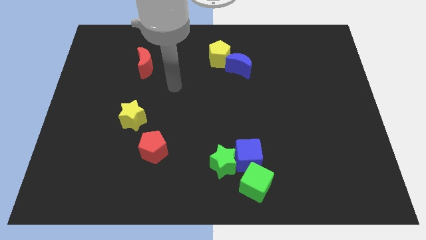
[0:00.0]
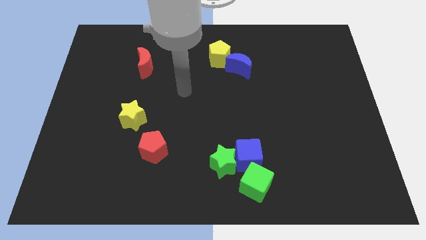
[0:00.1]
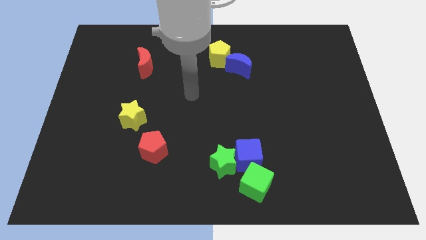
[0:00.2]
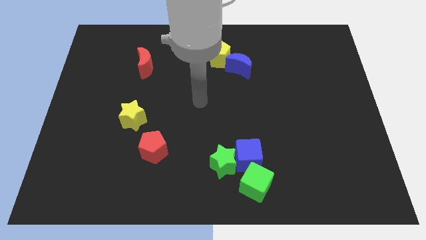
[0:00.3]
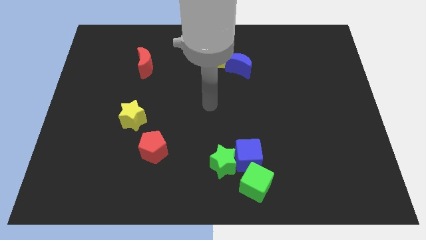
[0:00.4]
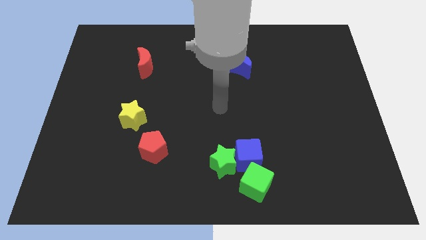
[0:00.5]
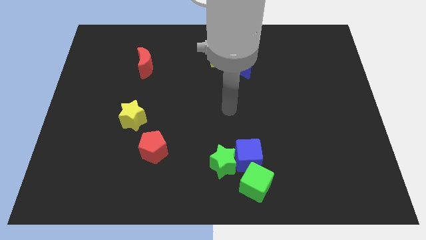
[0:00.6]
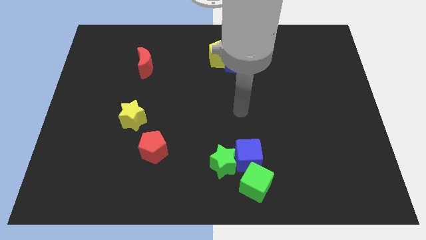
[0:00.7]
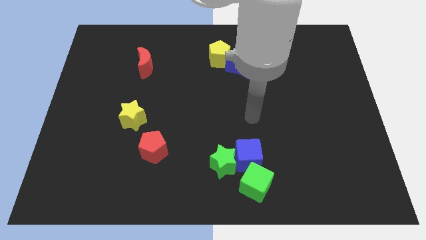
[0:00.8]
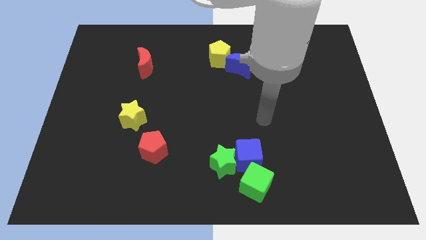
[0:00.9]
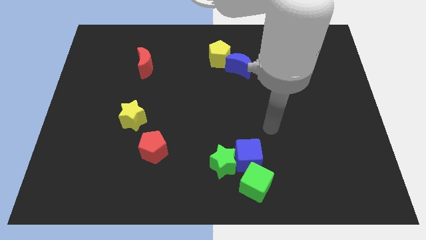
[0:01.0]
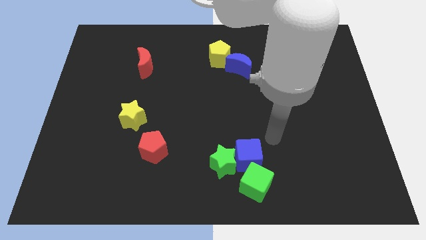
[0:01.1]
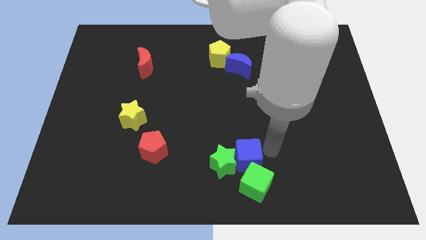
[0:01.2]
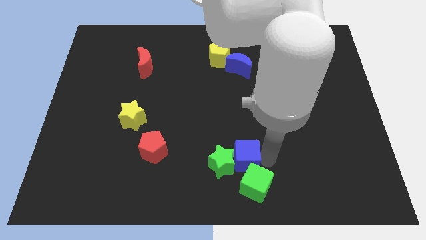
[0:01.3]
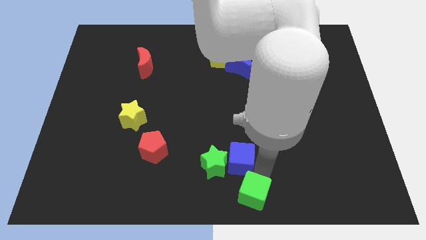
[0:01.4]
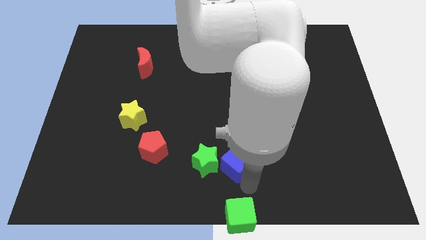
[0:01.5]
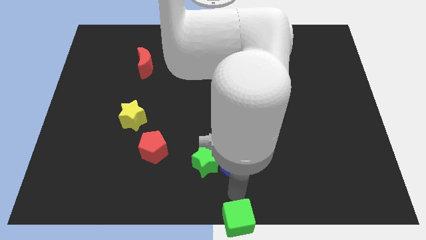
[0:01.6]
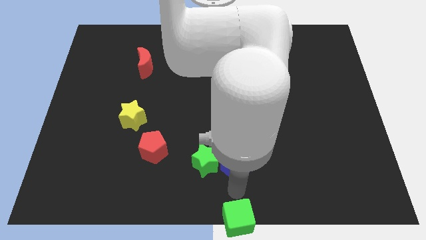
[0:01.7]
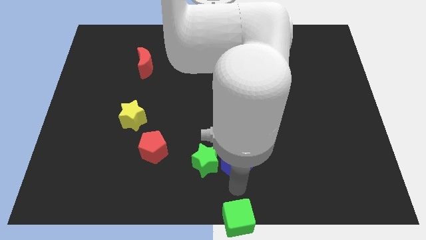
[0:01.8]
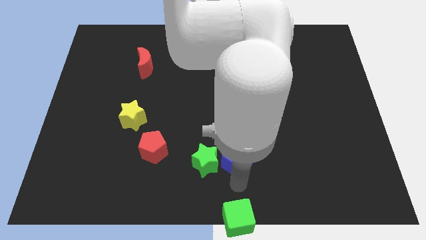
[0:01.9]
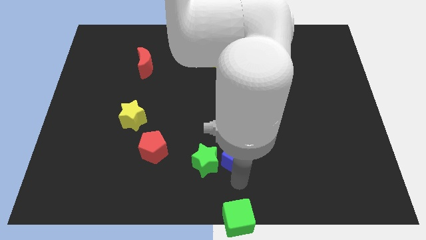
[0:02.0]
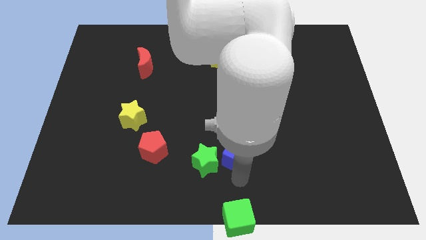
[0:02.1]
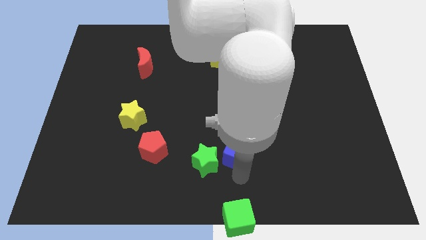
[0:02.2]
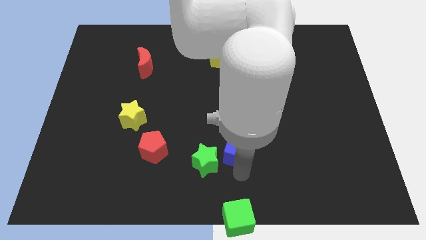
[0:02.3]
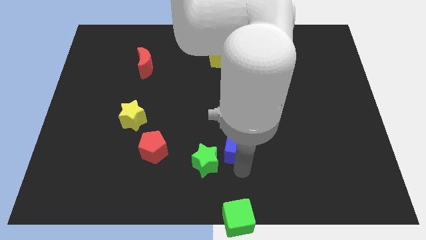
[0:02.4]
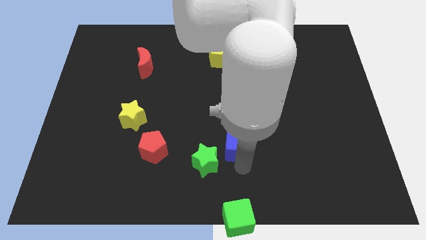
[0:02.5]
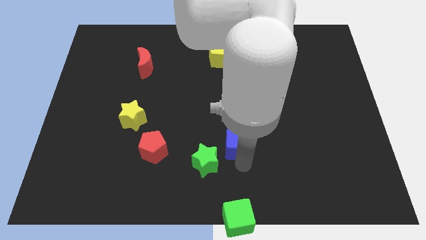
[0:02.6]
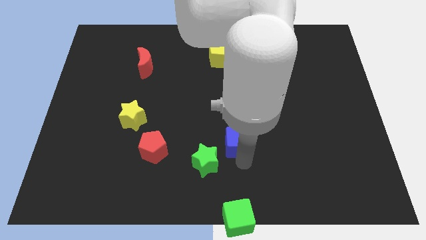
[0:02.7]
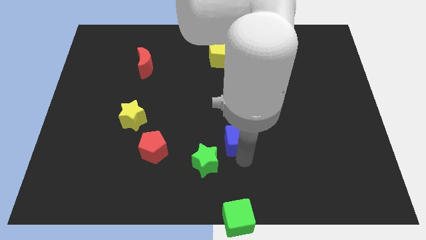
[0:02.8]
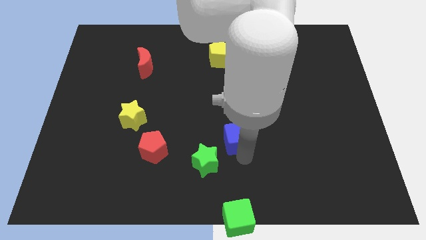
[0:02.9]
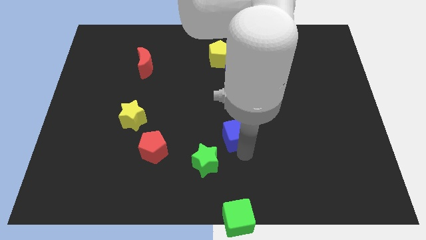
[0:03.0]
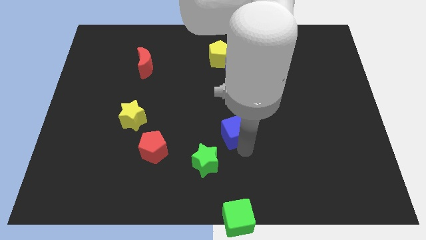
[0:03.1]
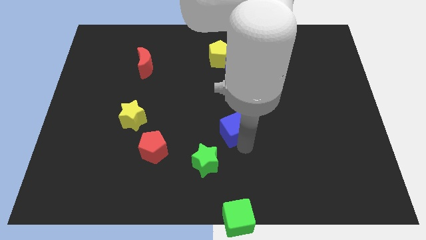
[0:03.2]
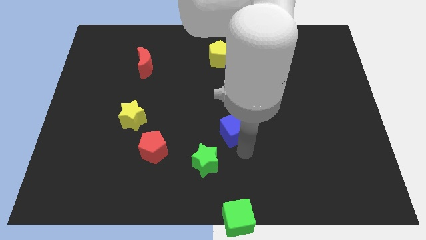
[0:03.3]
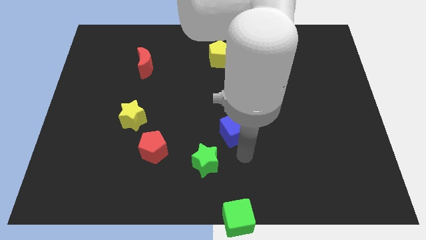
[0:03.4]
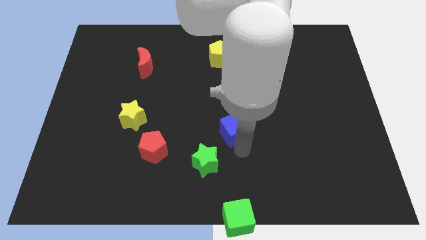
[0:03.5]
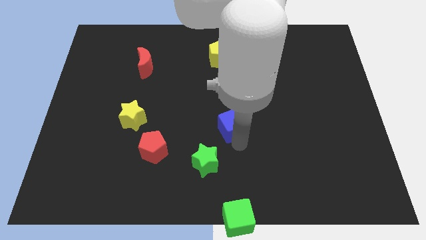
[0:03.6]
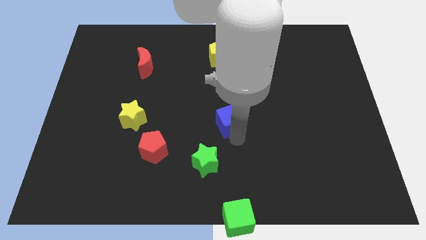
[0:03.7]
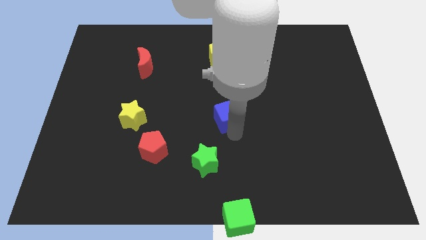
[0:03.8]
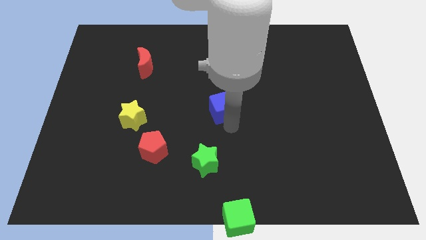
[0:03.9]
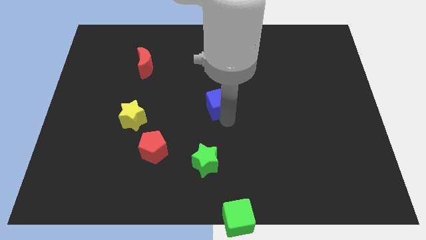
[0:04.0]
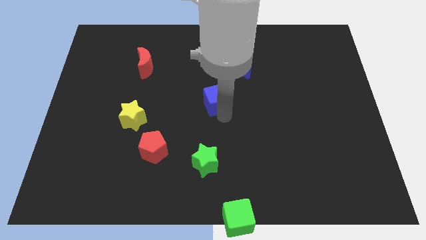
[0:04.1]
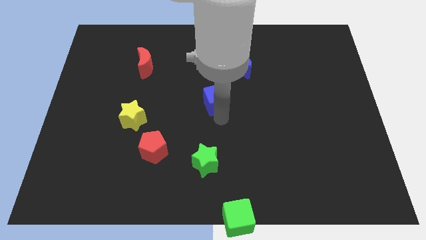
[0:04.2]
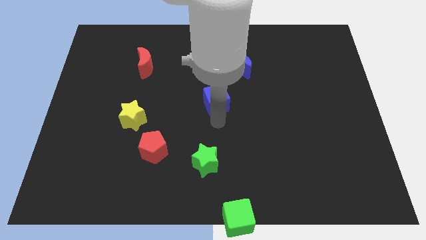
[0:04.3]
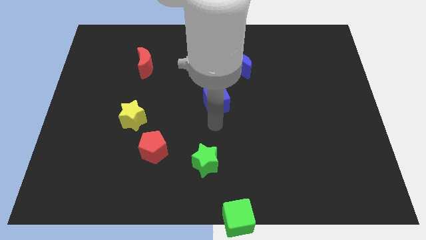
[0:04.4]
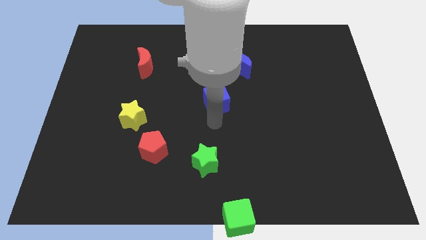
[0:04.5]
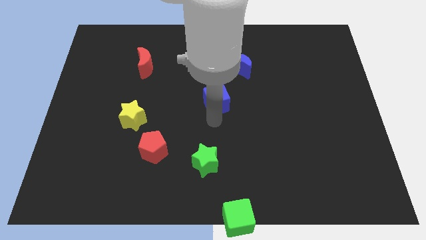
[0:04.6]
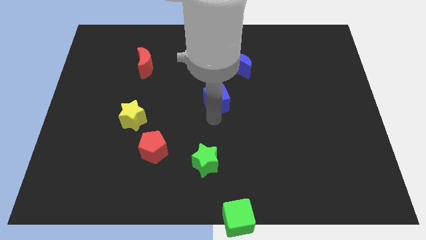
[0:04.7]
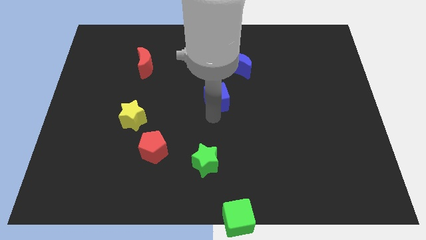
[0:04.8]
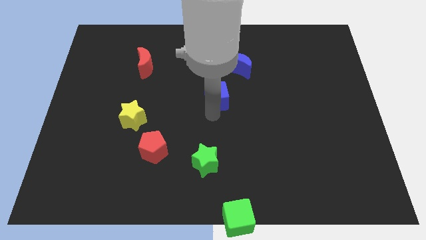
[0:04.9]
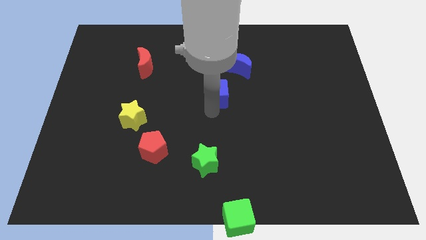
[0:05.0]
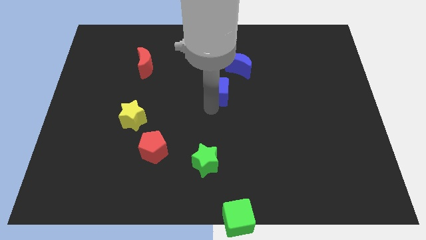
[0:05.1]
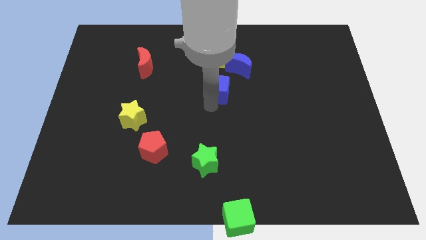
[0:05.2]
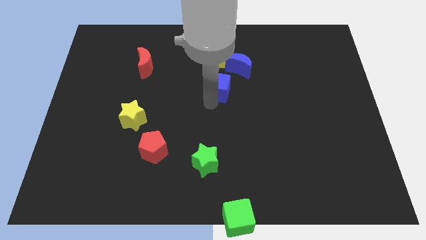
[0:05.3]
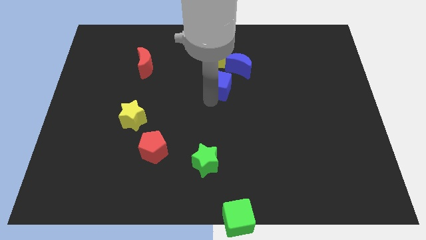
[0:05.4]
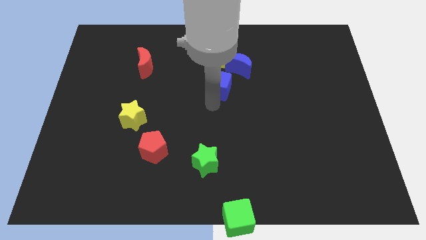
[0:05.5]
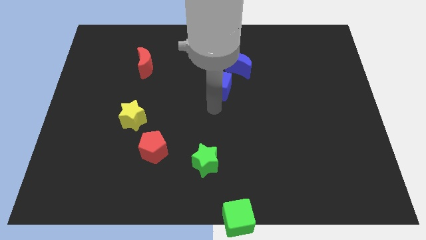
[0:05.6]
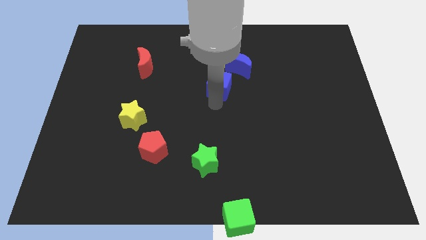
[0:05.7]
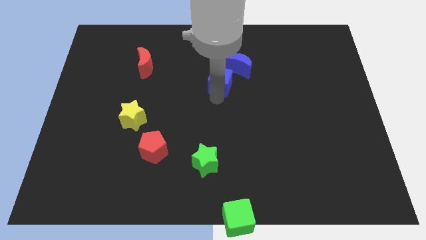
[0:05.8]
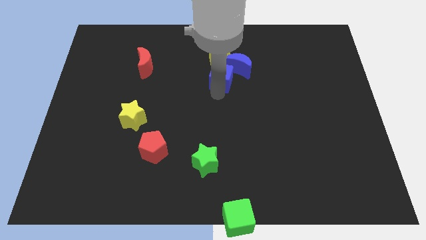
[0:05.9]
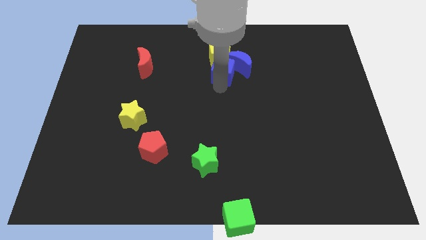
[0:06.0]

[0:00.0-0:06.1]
put the blue cube towards the yellow pentagon

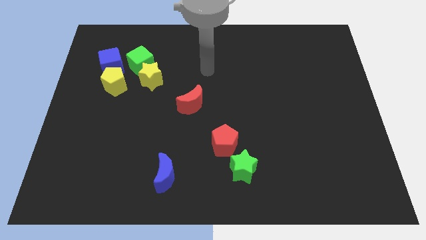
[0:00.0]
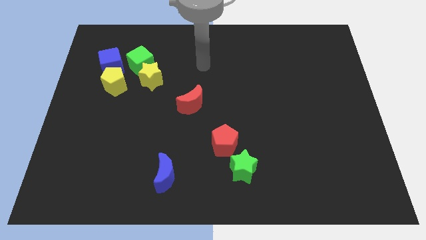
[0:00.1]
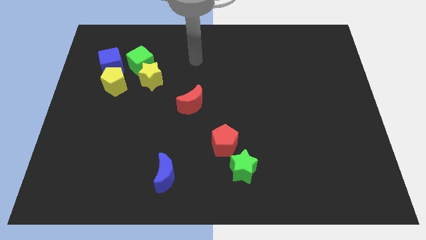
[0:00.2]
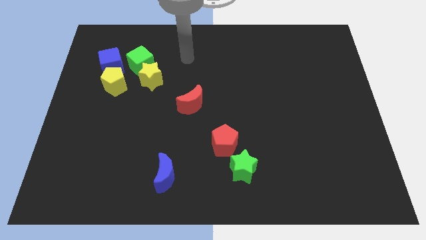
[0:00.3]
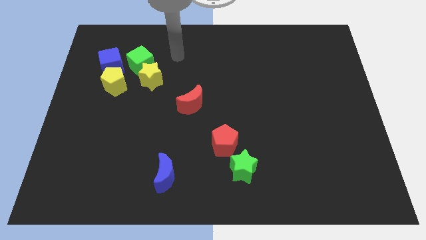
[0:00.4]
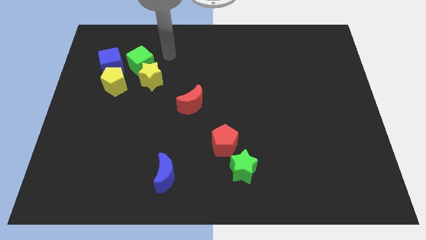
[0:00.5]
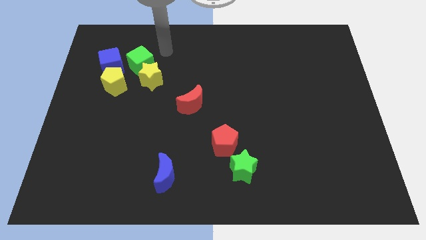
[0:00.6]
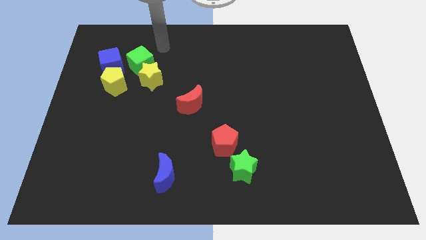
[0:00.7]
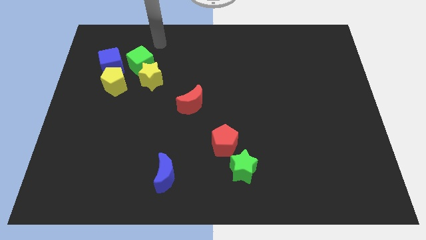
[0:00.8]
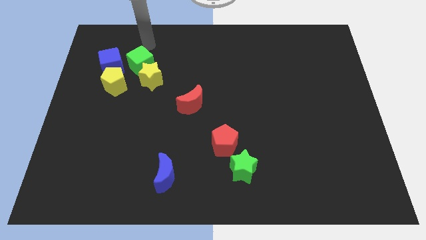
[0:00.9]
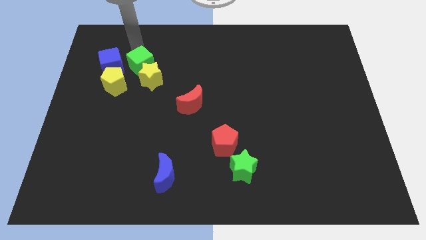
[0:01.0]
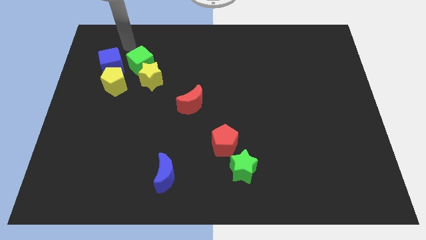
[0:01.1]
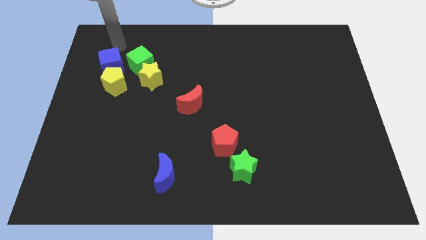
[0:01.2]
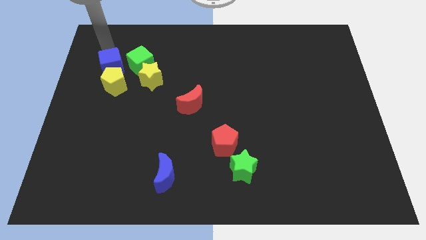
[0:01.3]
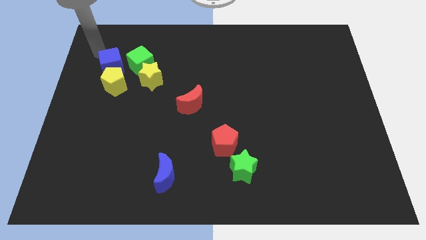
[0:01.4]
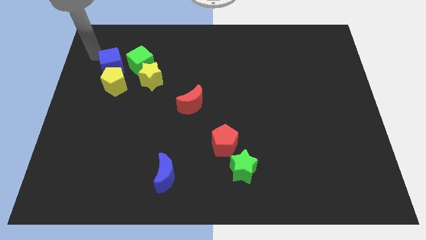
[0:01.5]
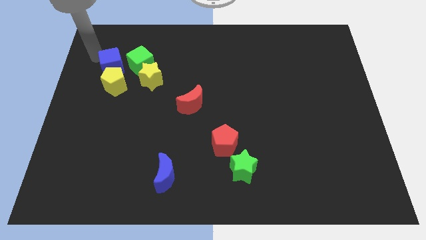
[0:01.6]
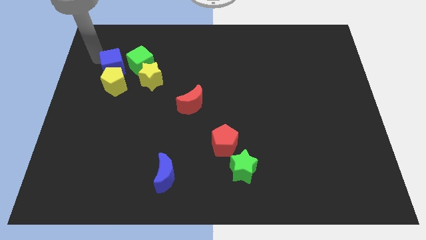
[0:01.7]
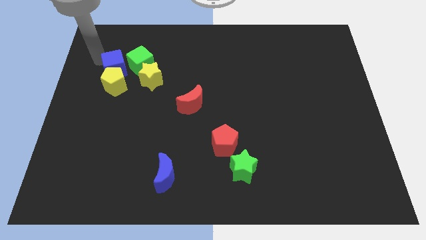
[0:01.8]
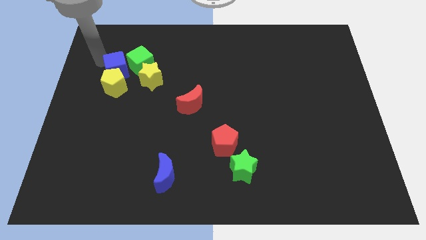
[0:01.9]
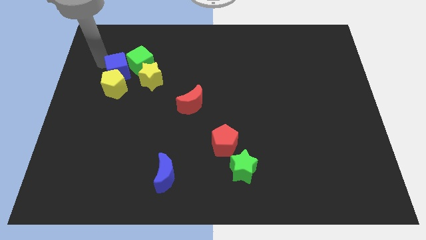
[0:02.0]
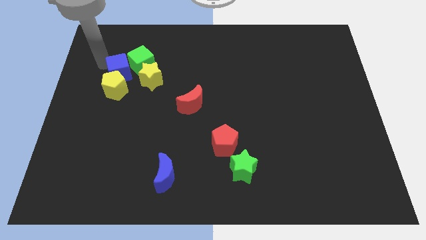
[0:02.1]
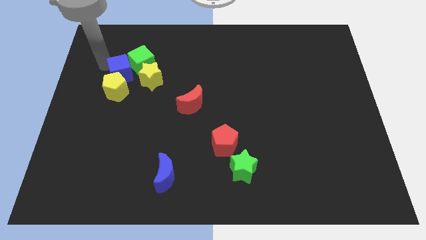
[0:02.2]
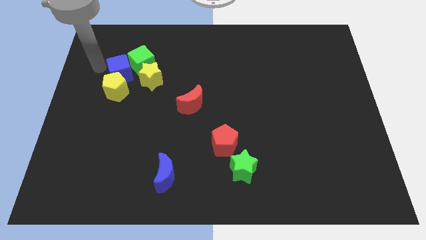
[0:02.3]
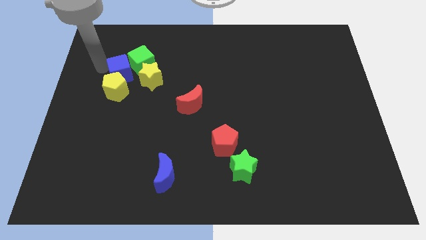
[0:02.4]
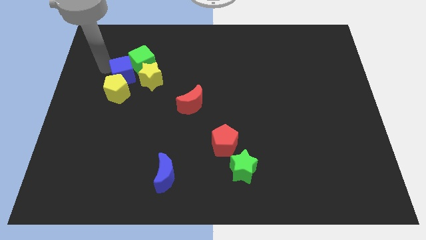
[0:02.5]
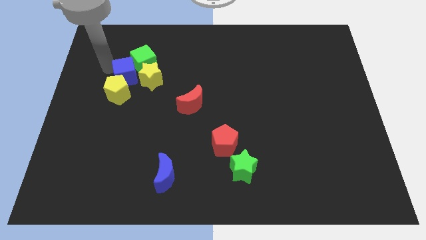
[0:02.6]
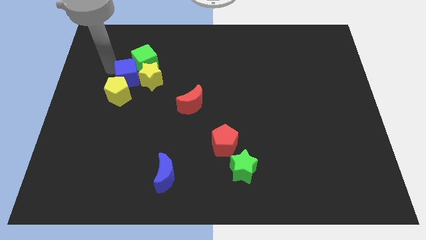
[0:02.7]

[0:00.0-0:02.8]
slide the blue cube next to the yellow star
